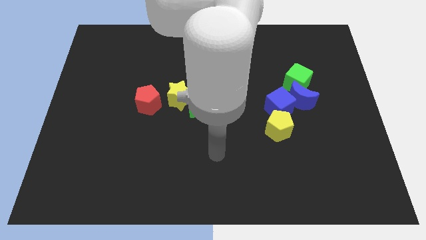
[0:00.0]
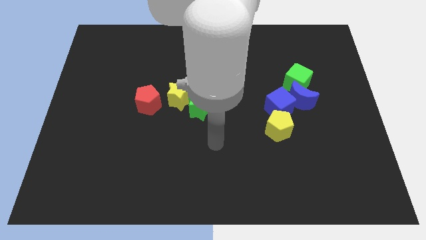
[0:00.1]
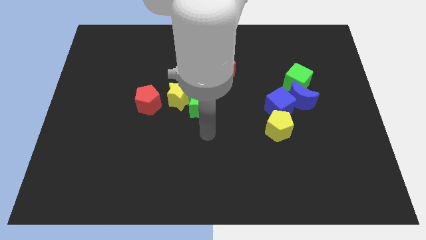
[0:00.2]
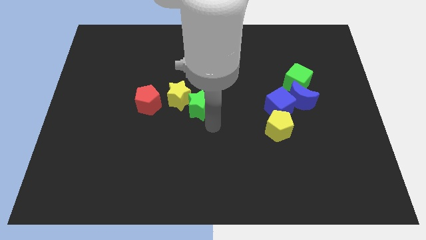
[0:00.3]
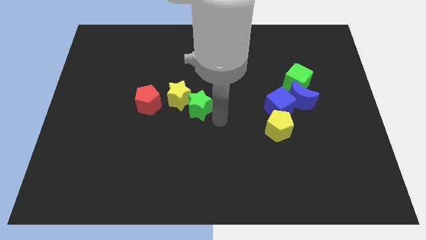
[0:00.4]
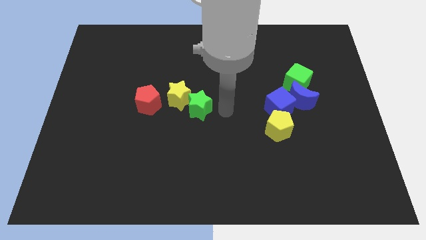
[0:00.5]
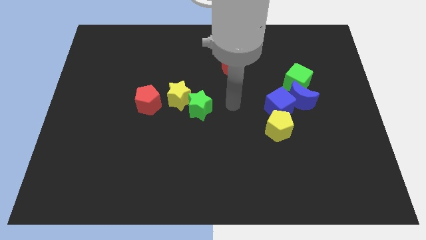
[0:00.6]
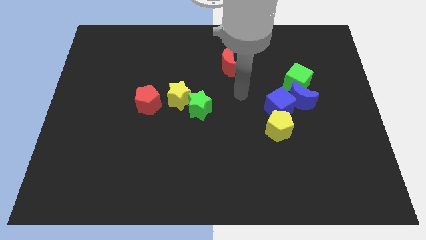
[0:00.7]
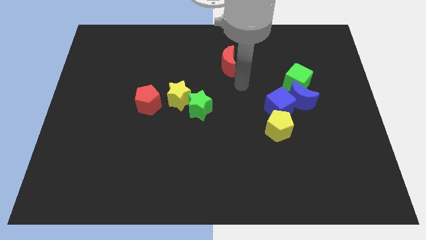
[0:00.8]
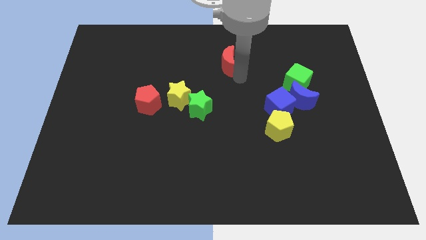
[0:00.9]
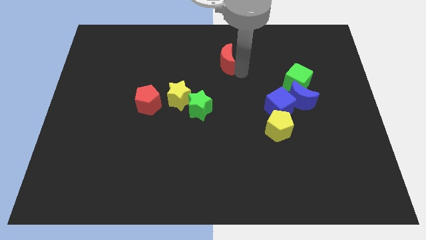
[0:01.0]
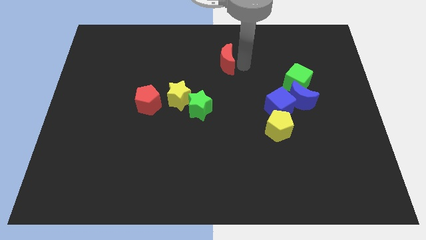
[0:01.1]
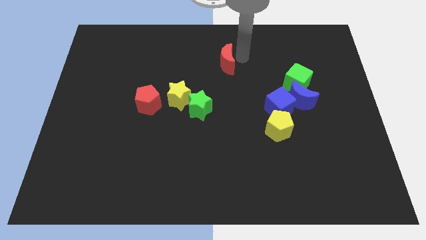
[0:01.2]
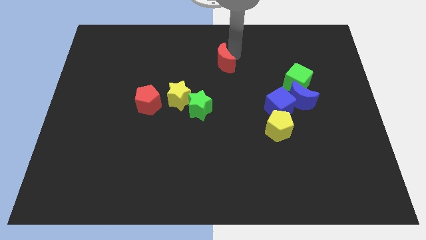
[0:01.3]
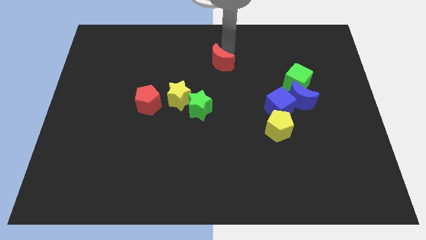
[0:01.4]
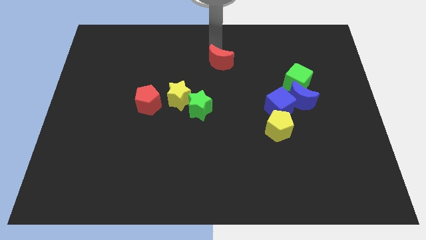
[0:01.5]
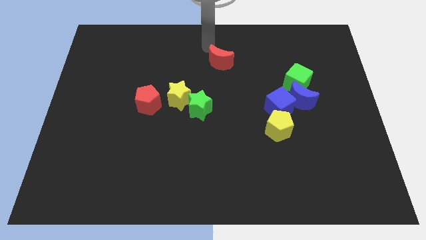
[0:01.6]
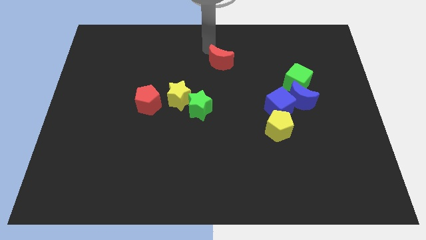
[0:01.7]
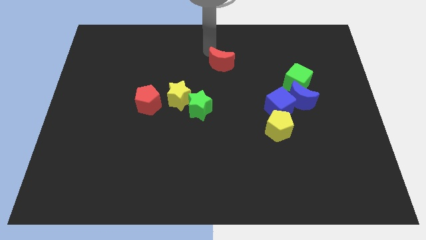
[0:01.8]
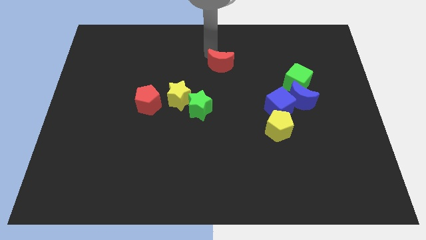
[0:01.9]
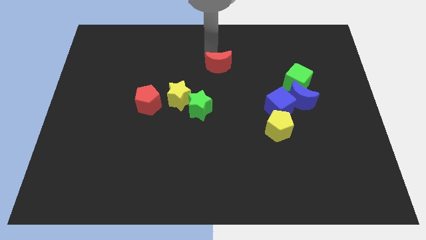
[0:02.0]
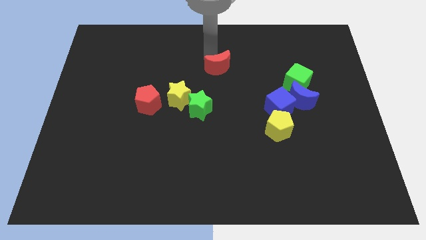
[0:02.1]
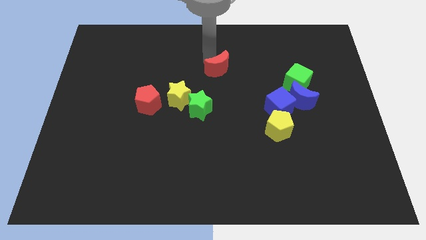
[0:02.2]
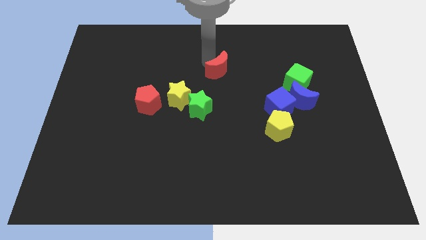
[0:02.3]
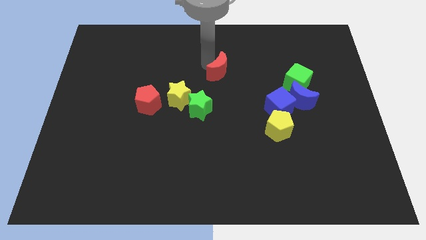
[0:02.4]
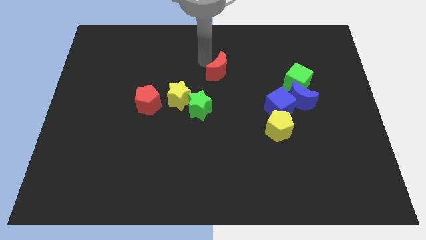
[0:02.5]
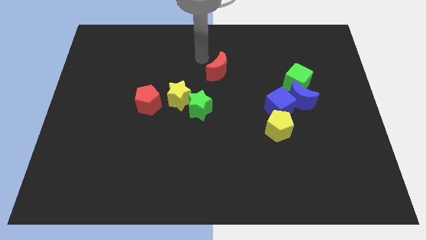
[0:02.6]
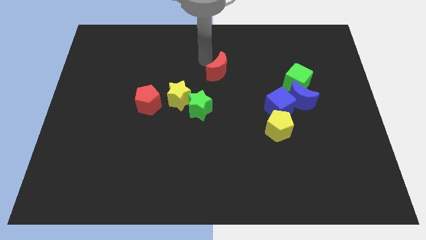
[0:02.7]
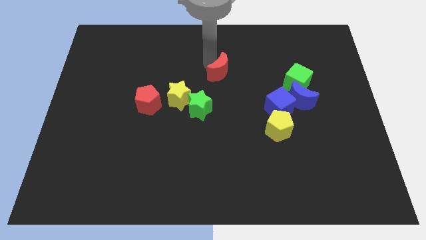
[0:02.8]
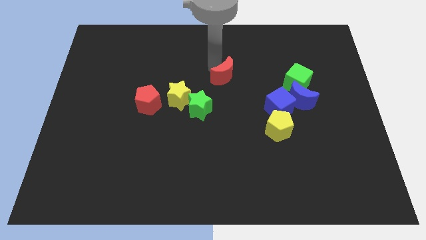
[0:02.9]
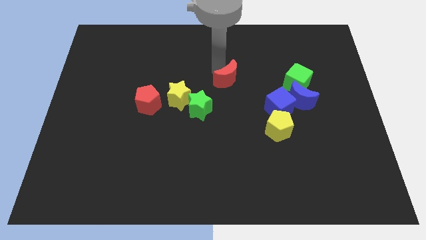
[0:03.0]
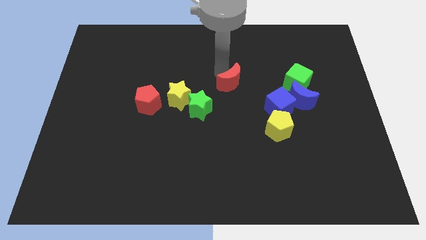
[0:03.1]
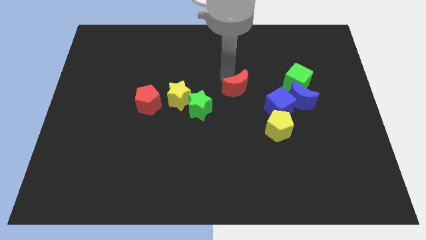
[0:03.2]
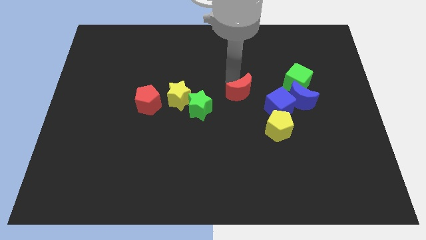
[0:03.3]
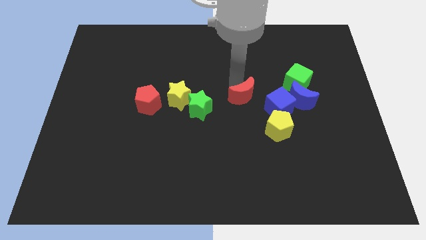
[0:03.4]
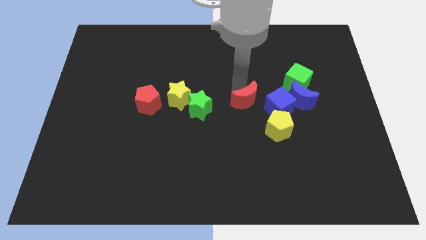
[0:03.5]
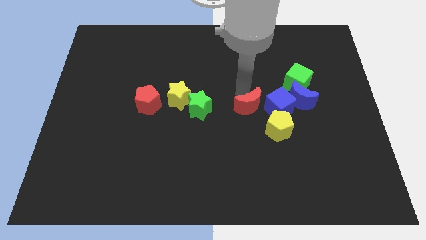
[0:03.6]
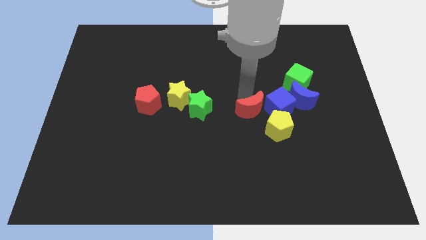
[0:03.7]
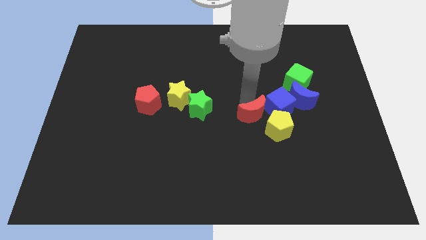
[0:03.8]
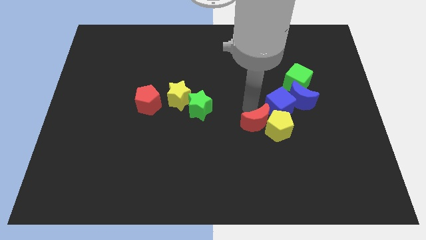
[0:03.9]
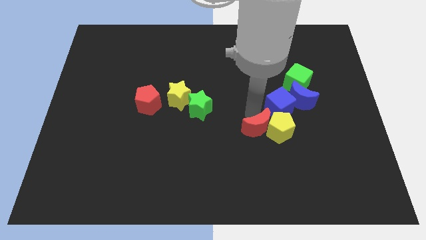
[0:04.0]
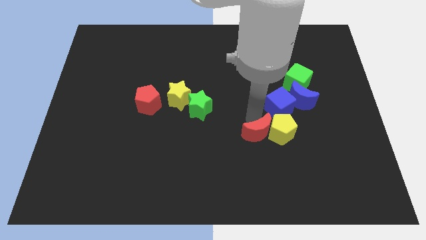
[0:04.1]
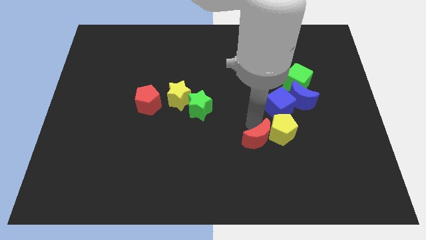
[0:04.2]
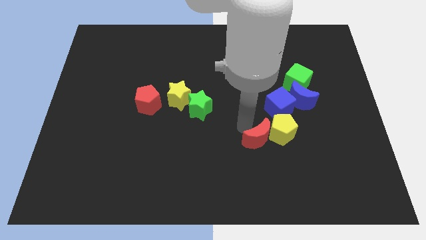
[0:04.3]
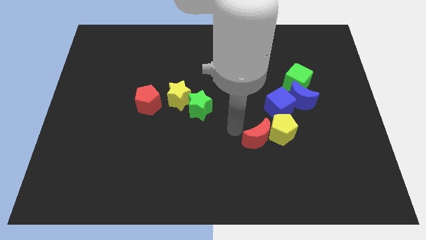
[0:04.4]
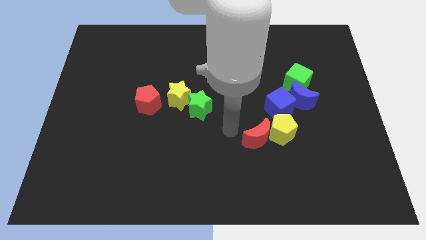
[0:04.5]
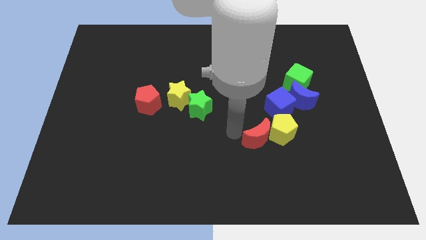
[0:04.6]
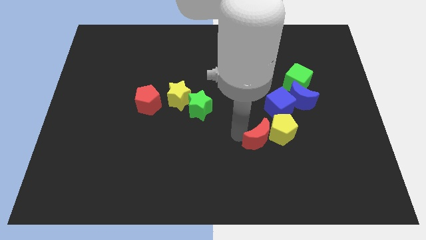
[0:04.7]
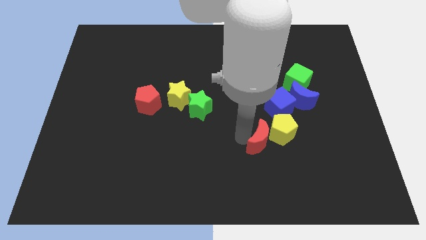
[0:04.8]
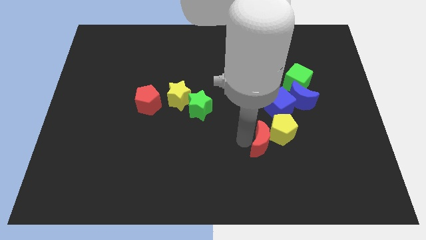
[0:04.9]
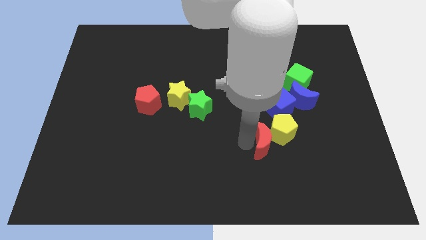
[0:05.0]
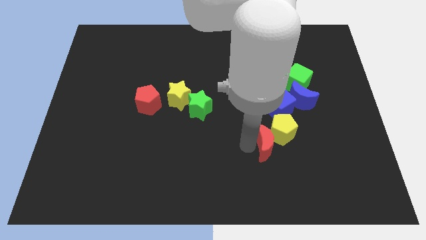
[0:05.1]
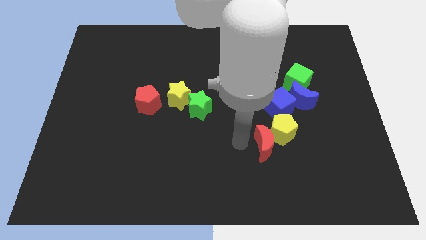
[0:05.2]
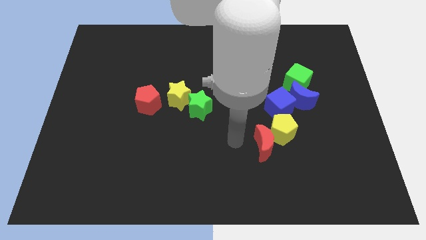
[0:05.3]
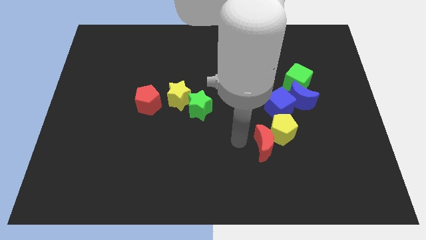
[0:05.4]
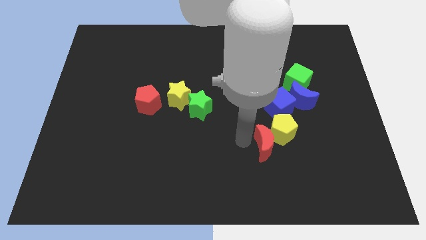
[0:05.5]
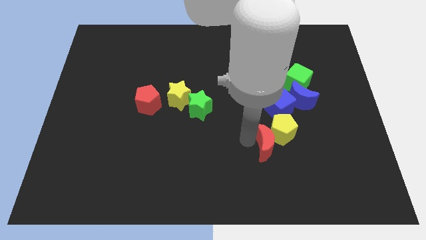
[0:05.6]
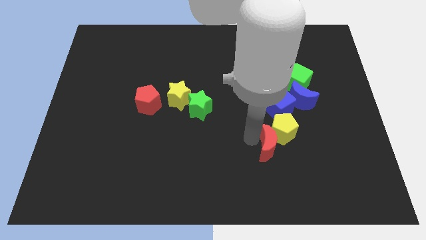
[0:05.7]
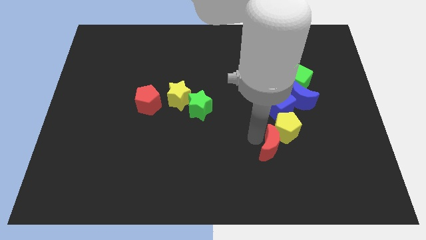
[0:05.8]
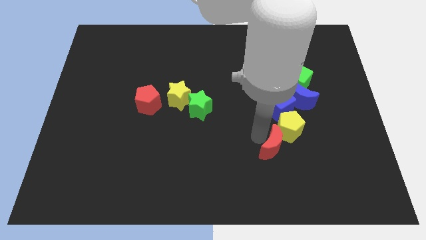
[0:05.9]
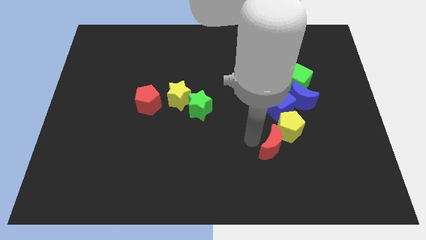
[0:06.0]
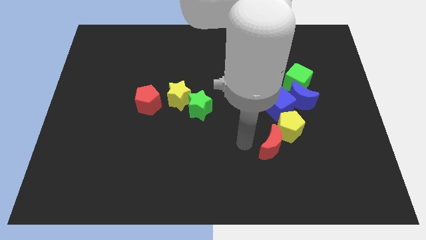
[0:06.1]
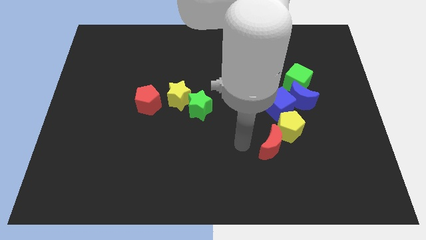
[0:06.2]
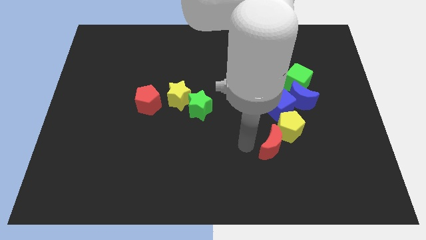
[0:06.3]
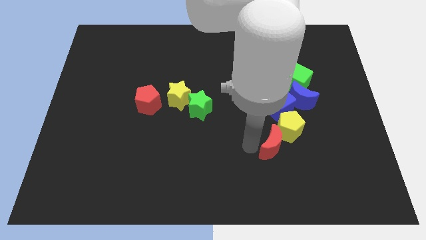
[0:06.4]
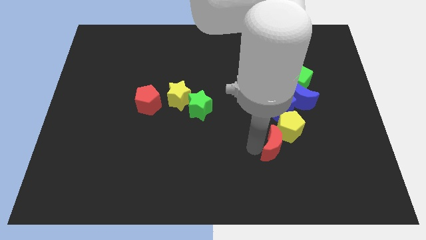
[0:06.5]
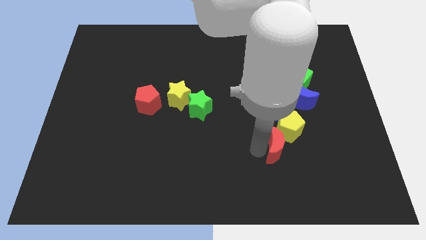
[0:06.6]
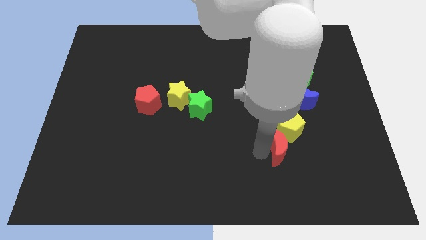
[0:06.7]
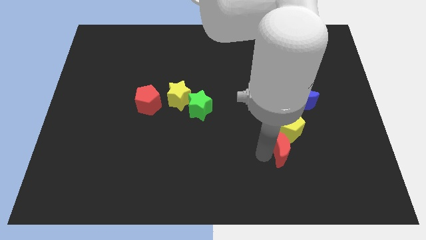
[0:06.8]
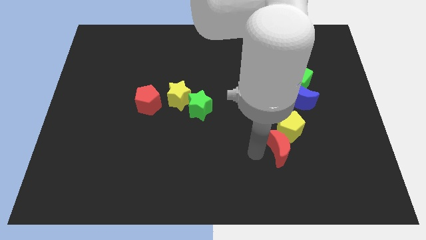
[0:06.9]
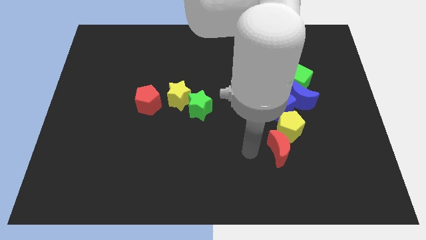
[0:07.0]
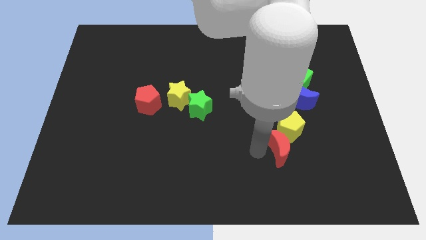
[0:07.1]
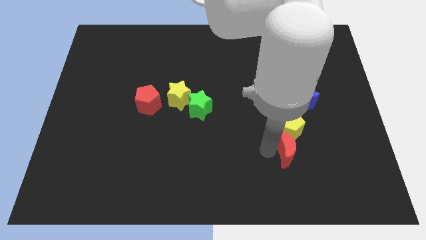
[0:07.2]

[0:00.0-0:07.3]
move the red moon to the bottom right of the yellow pentagon
